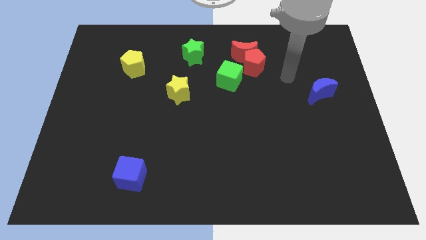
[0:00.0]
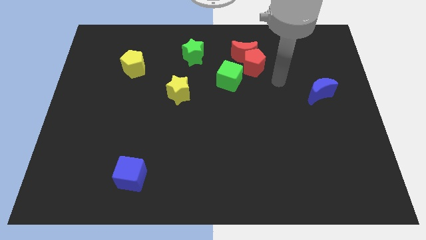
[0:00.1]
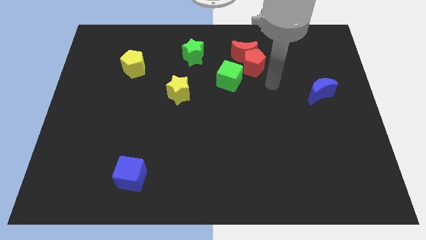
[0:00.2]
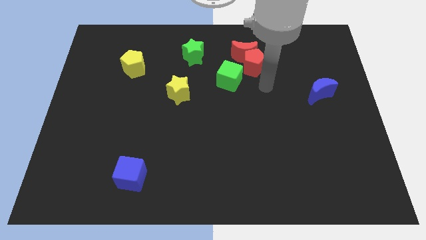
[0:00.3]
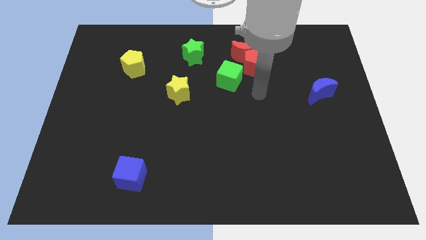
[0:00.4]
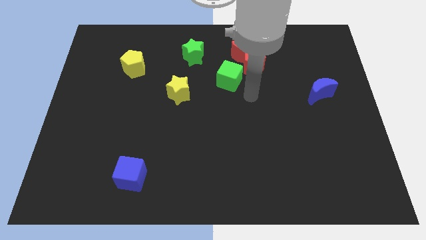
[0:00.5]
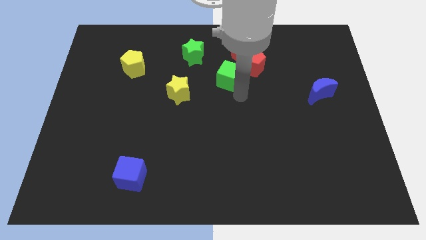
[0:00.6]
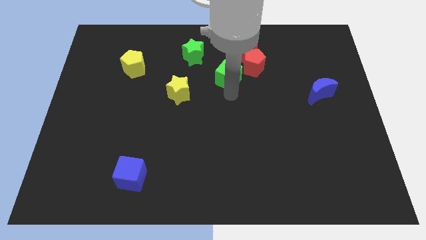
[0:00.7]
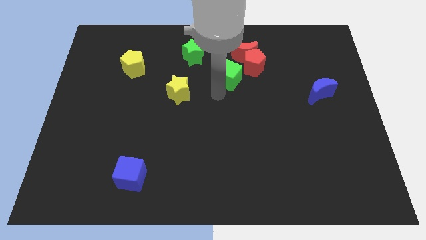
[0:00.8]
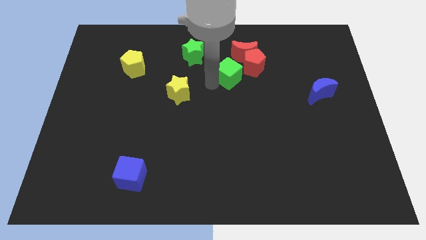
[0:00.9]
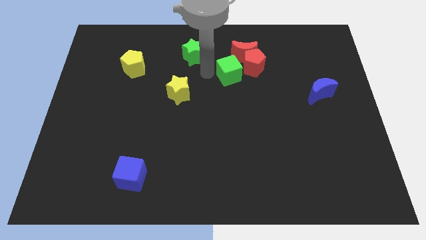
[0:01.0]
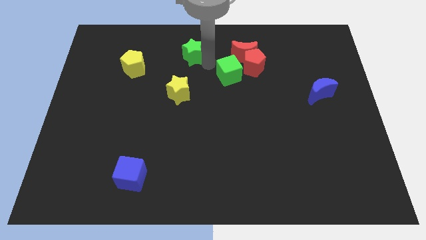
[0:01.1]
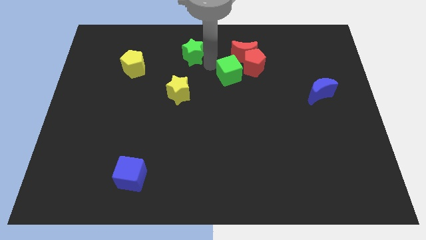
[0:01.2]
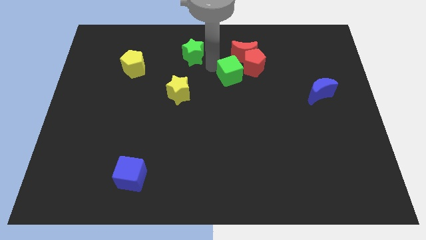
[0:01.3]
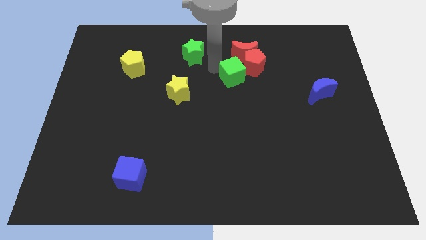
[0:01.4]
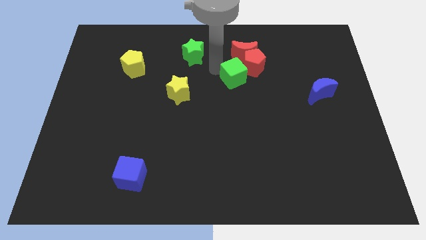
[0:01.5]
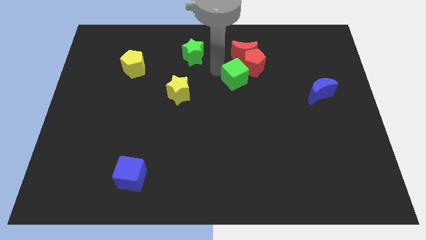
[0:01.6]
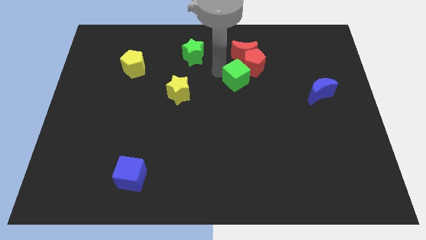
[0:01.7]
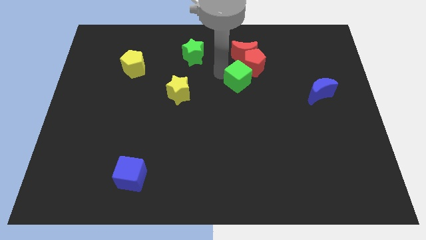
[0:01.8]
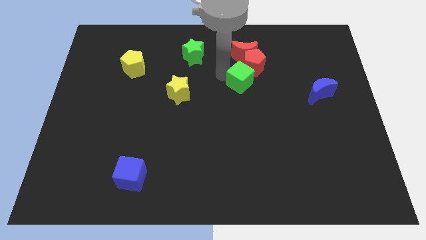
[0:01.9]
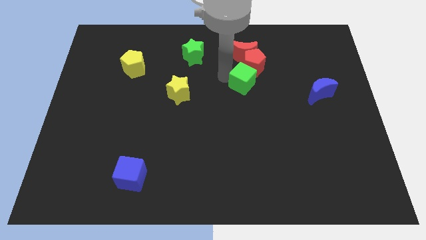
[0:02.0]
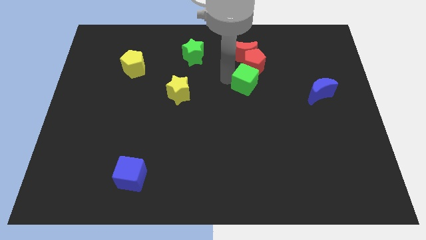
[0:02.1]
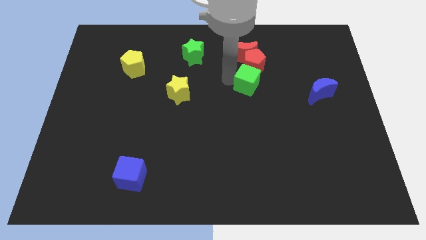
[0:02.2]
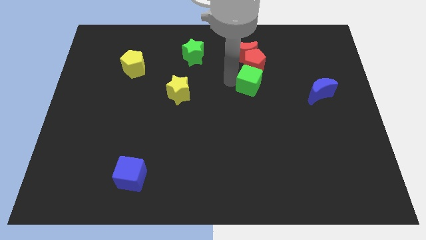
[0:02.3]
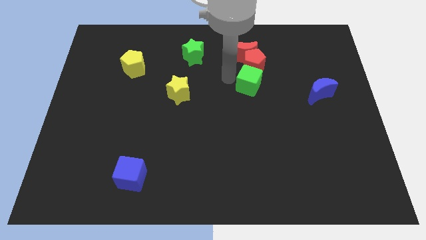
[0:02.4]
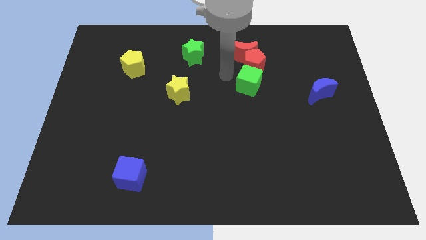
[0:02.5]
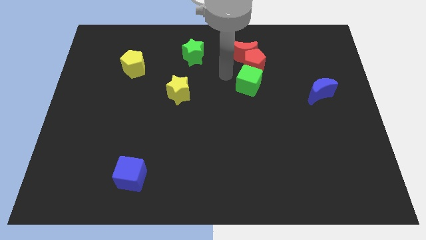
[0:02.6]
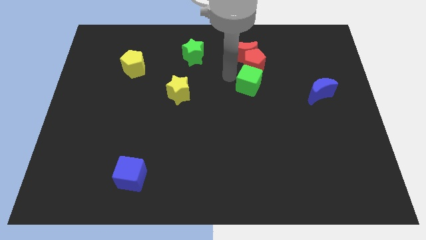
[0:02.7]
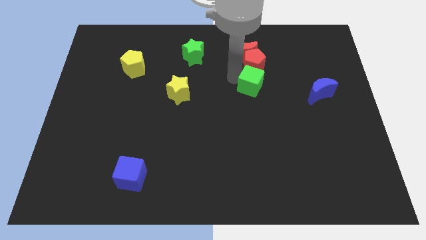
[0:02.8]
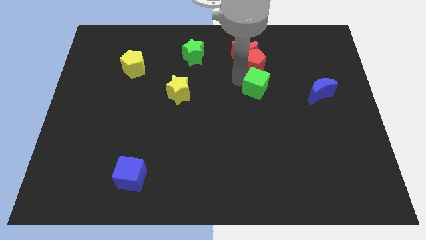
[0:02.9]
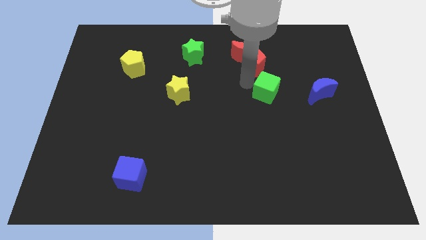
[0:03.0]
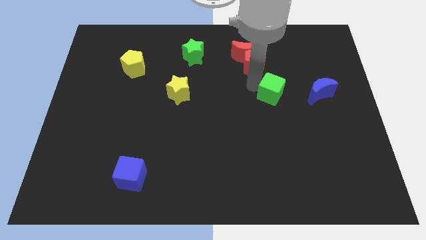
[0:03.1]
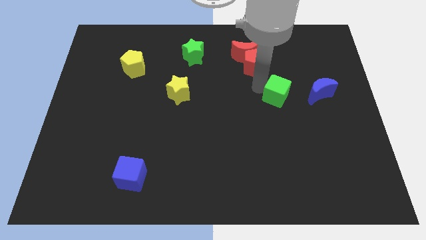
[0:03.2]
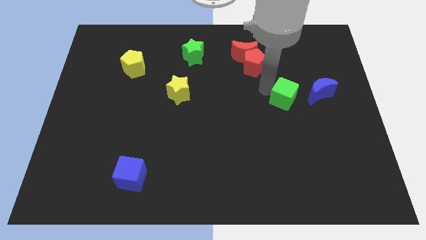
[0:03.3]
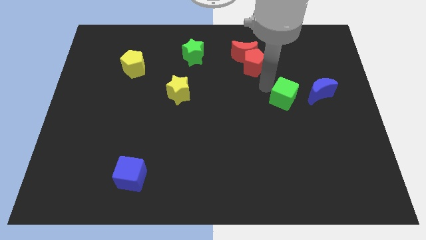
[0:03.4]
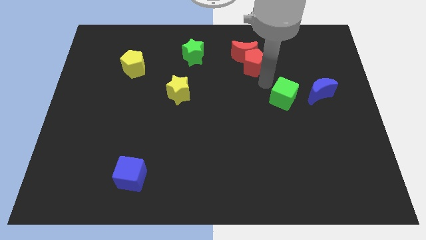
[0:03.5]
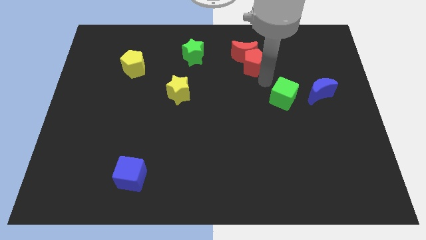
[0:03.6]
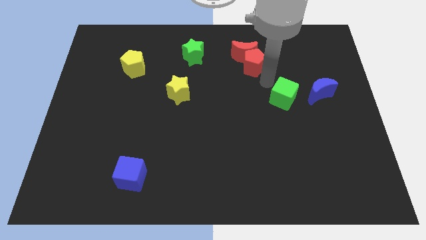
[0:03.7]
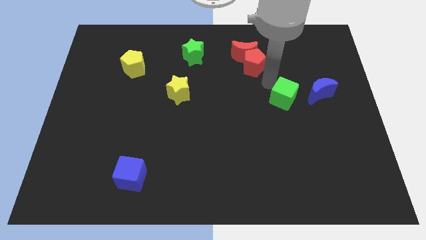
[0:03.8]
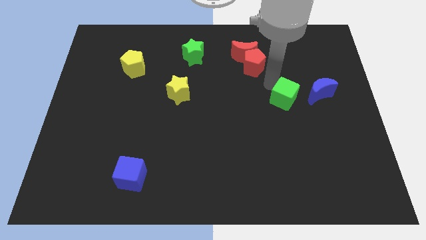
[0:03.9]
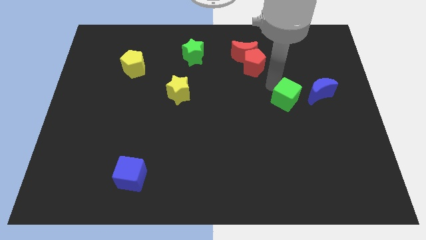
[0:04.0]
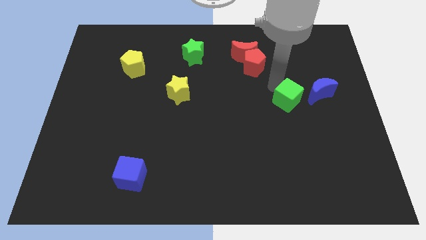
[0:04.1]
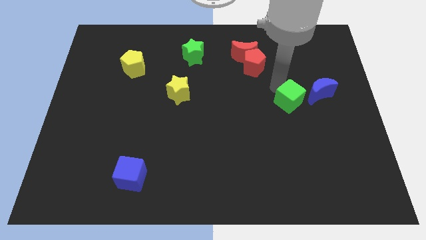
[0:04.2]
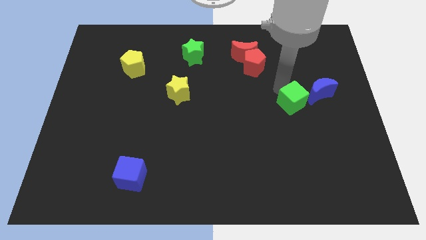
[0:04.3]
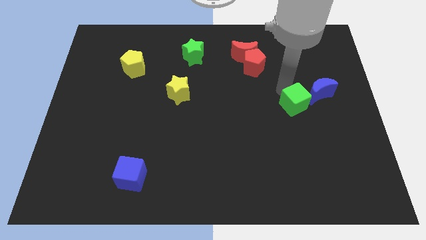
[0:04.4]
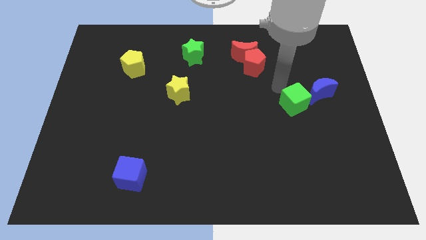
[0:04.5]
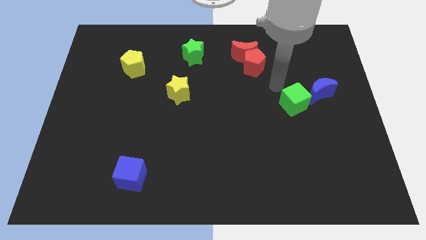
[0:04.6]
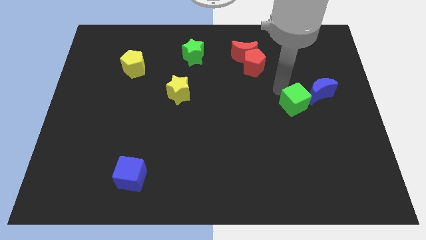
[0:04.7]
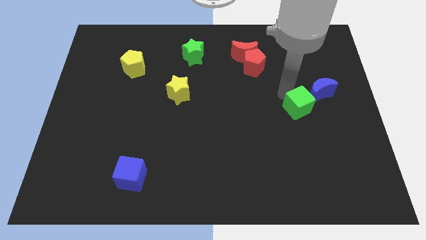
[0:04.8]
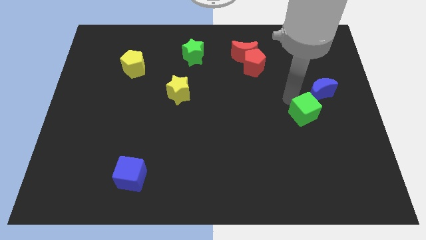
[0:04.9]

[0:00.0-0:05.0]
move the green cube to the bottom side of the blue moon

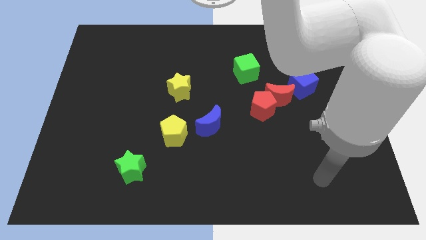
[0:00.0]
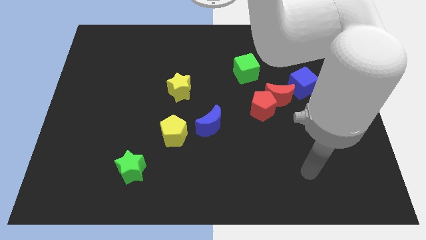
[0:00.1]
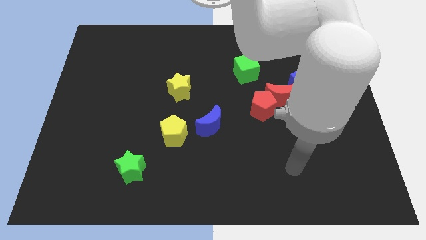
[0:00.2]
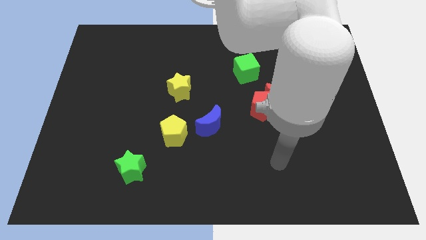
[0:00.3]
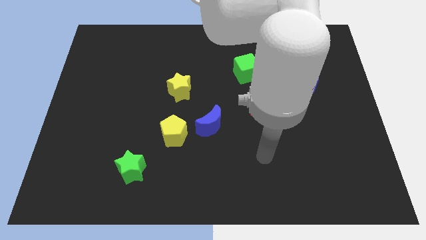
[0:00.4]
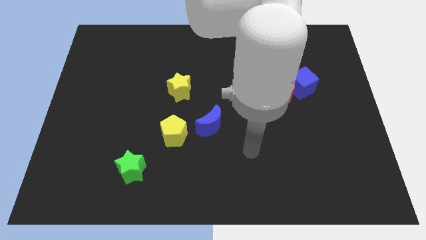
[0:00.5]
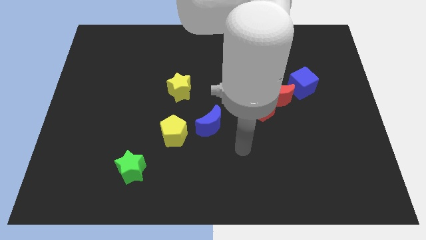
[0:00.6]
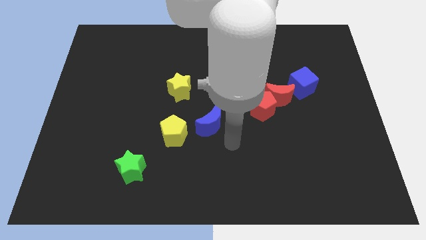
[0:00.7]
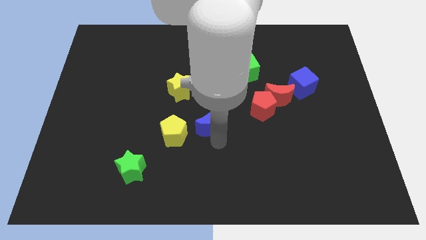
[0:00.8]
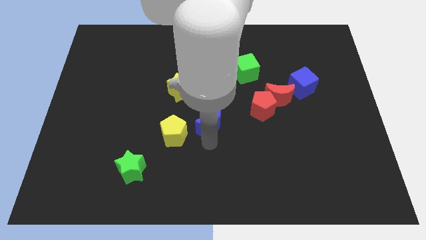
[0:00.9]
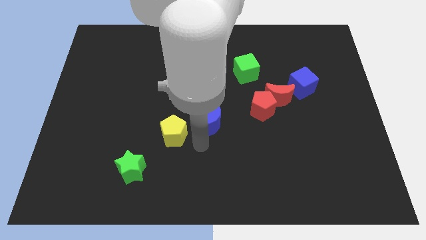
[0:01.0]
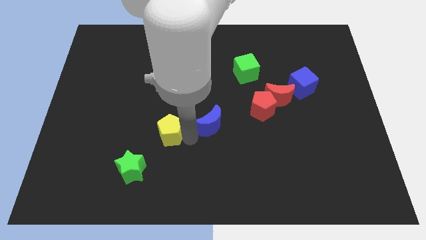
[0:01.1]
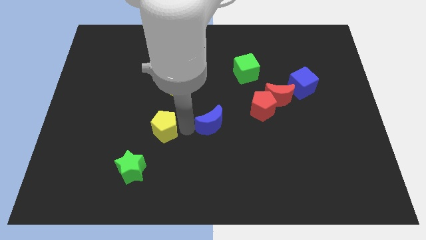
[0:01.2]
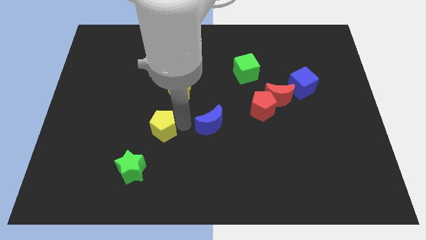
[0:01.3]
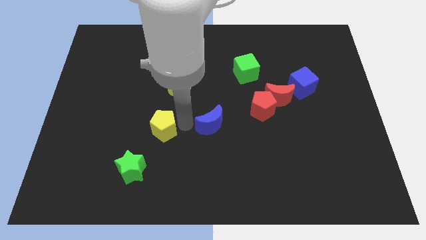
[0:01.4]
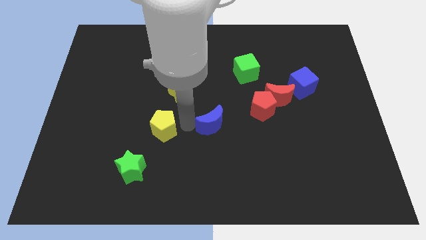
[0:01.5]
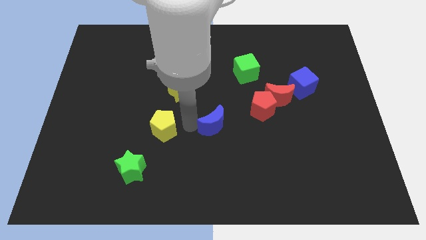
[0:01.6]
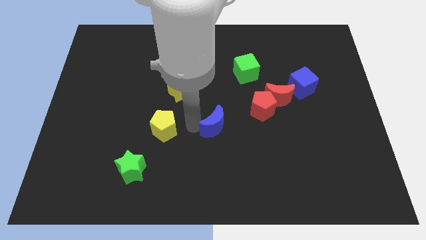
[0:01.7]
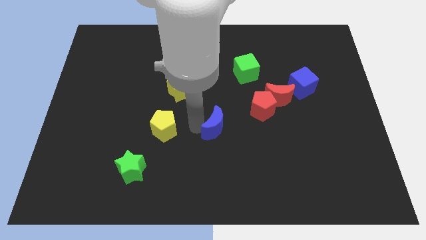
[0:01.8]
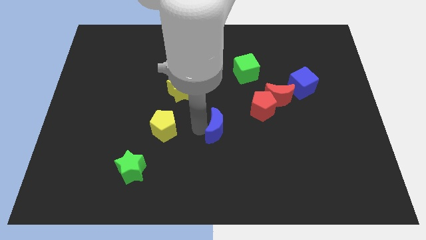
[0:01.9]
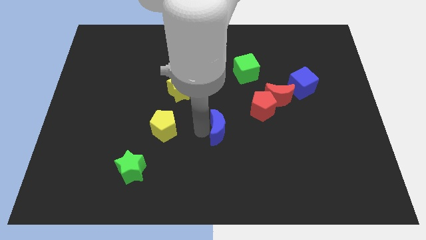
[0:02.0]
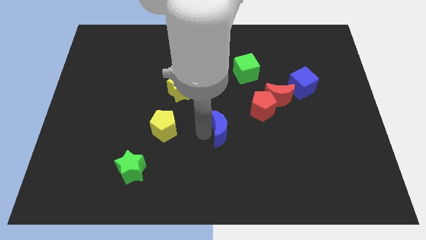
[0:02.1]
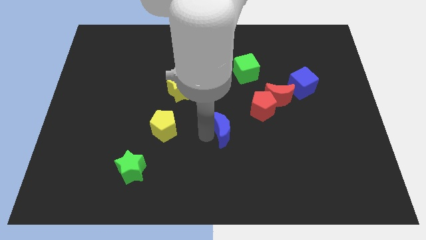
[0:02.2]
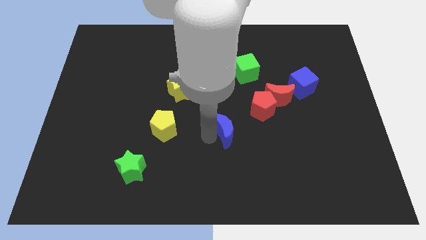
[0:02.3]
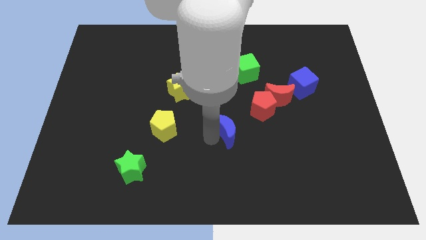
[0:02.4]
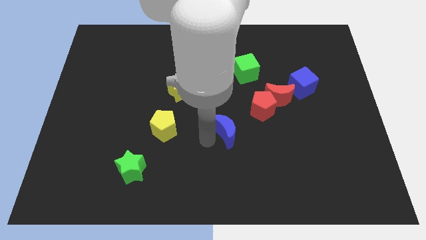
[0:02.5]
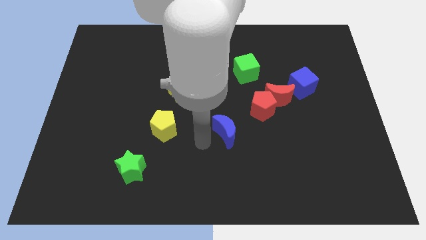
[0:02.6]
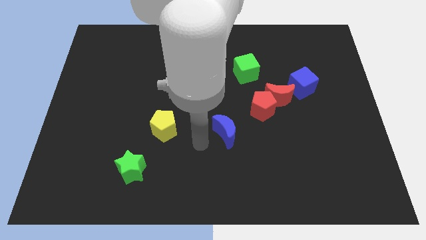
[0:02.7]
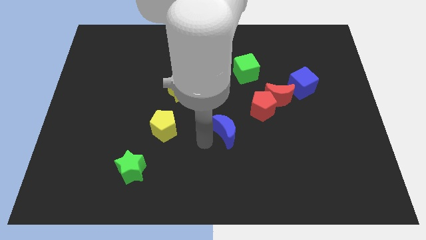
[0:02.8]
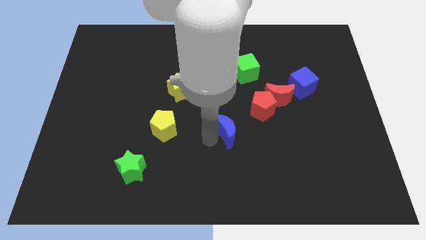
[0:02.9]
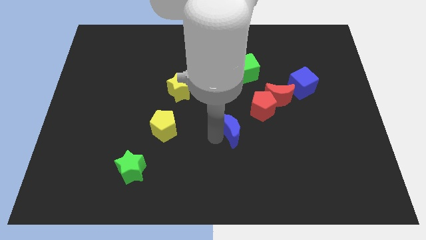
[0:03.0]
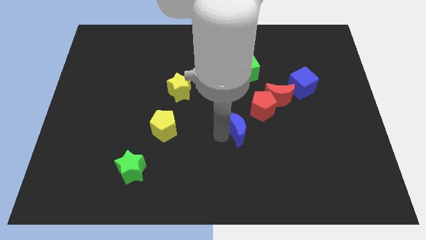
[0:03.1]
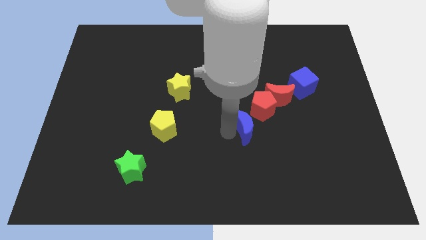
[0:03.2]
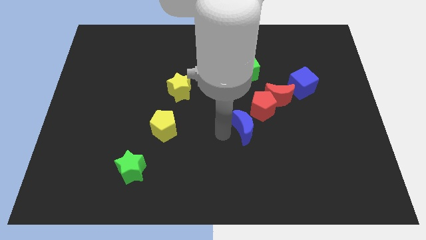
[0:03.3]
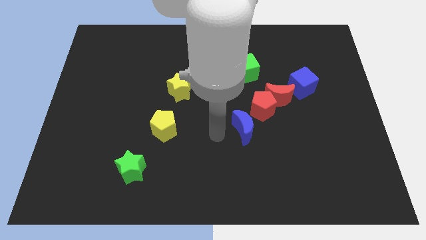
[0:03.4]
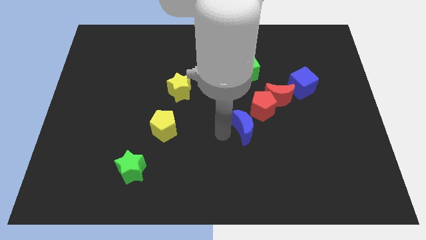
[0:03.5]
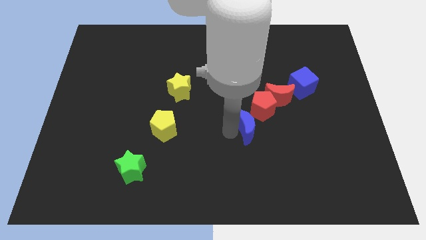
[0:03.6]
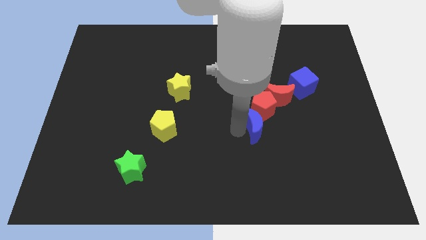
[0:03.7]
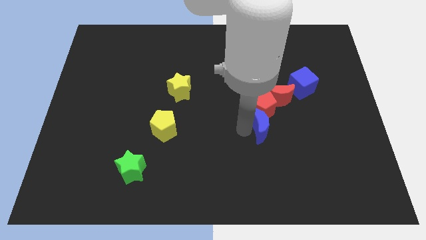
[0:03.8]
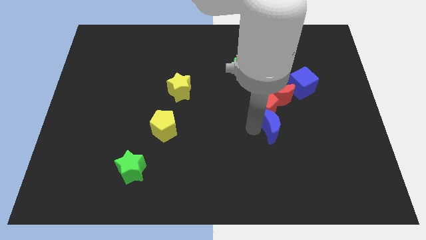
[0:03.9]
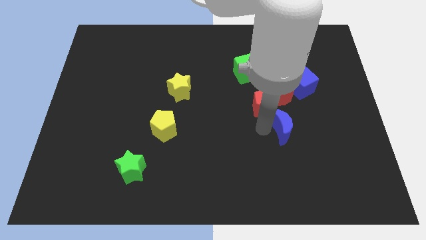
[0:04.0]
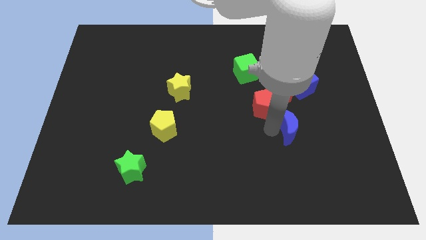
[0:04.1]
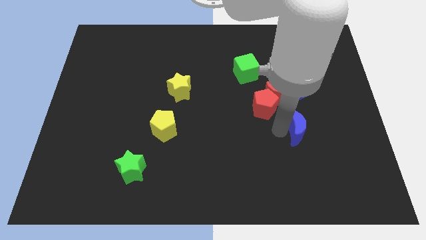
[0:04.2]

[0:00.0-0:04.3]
push the blue moon to the bottom side of the blue cube
